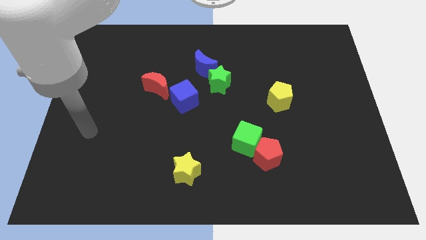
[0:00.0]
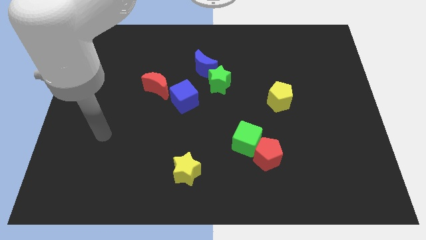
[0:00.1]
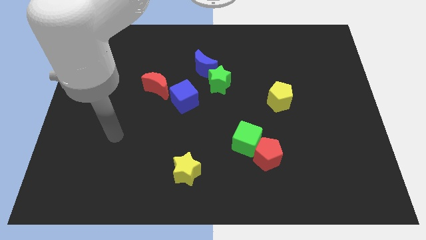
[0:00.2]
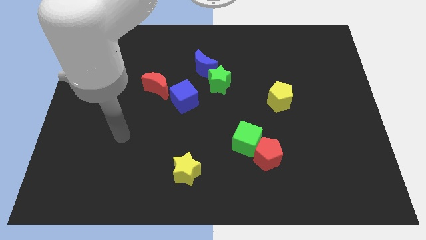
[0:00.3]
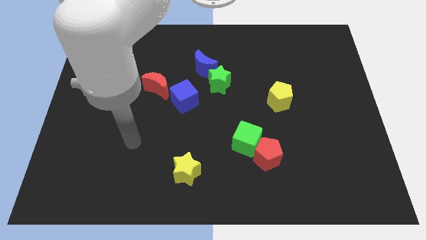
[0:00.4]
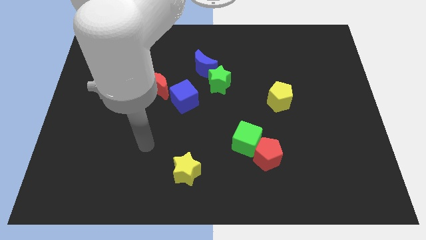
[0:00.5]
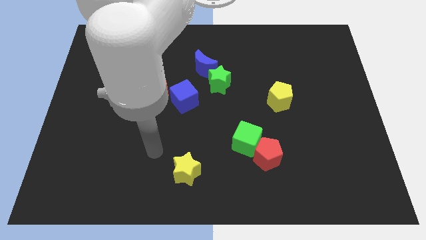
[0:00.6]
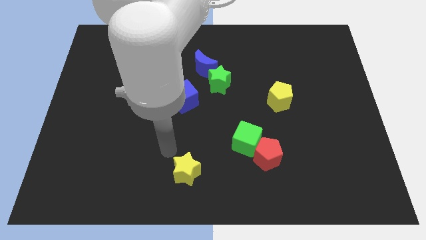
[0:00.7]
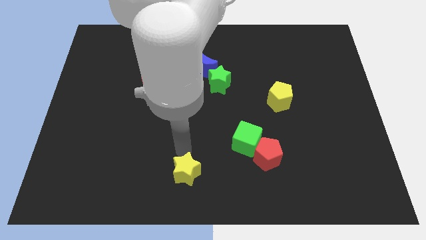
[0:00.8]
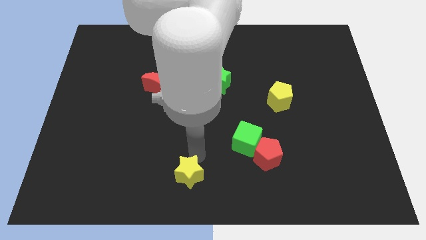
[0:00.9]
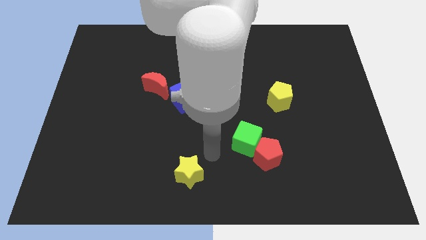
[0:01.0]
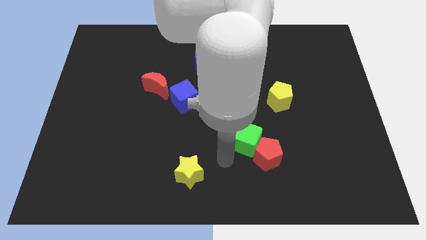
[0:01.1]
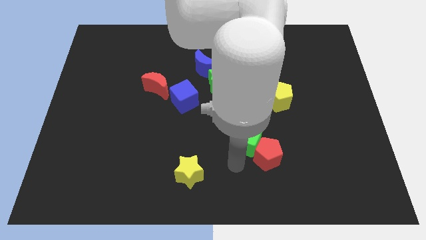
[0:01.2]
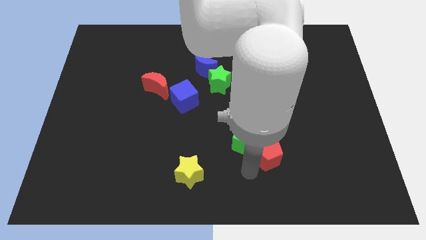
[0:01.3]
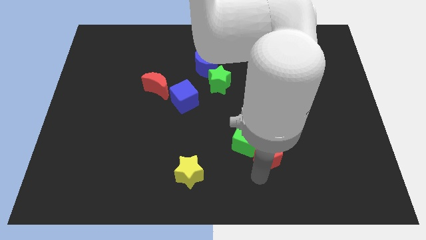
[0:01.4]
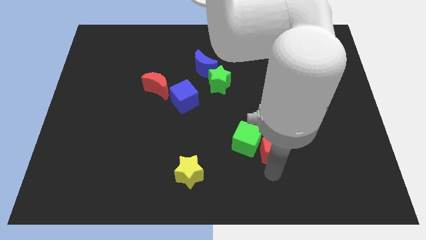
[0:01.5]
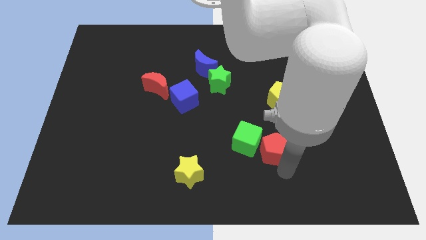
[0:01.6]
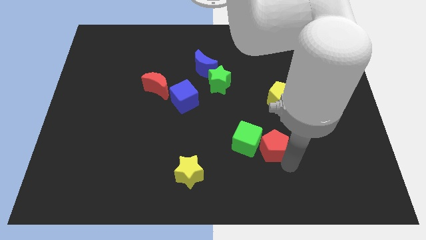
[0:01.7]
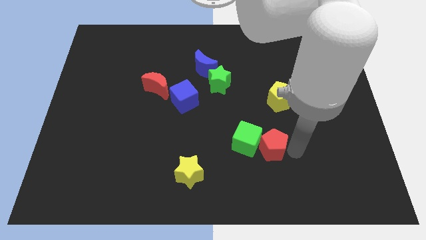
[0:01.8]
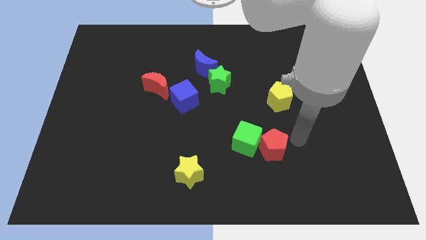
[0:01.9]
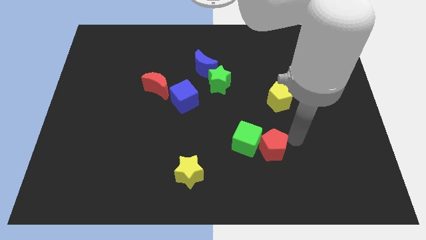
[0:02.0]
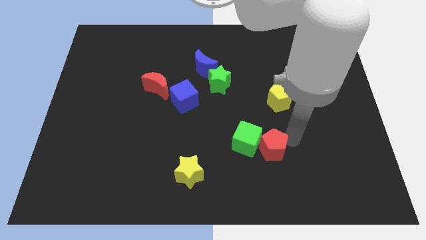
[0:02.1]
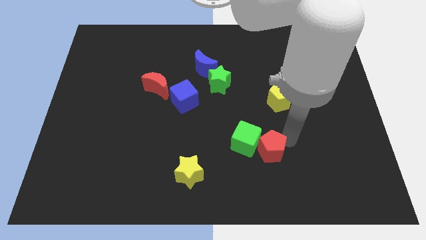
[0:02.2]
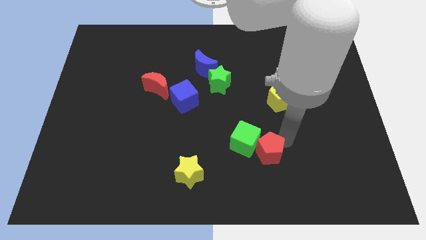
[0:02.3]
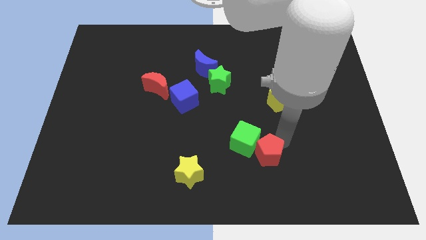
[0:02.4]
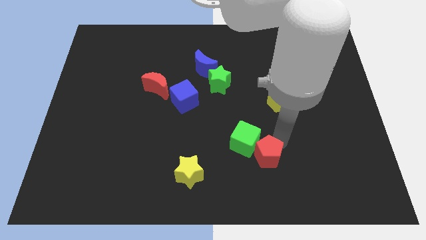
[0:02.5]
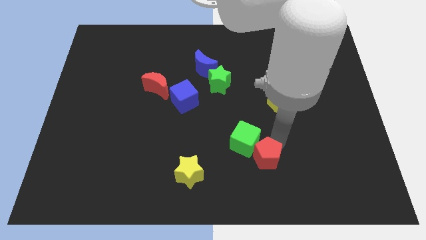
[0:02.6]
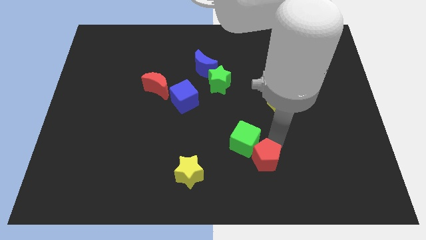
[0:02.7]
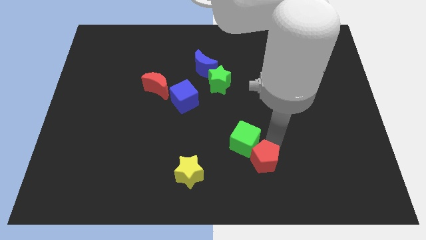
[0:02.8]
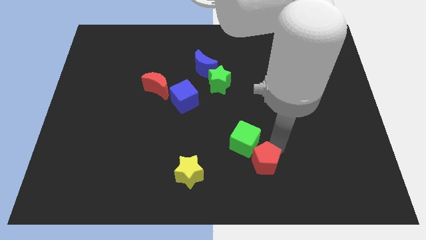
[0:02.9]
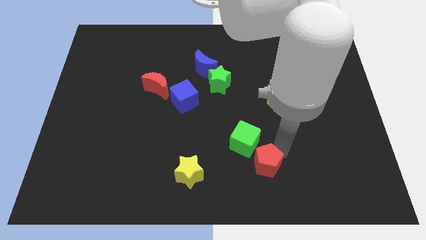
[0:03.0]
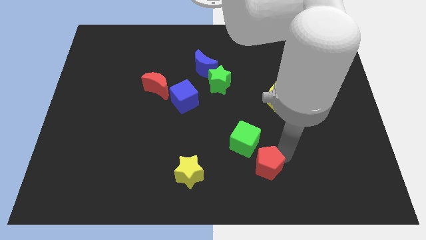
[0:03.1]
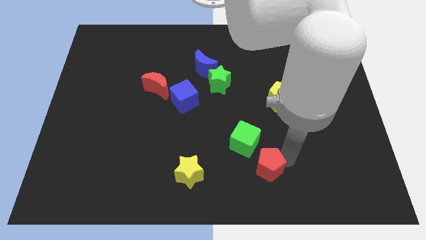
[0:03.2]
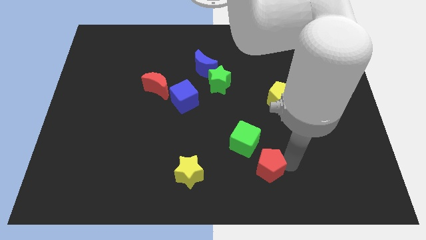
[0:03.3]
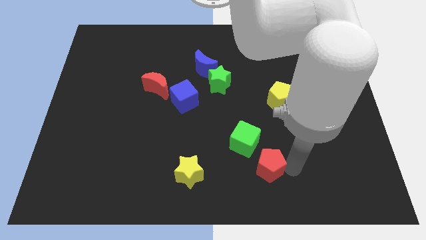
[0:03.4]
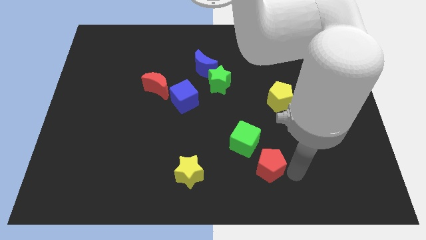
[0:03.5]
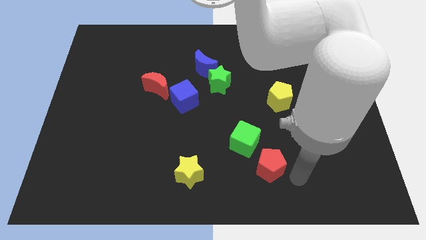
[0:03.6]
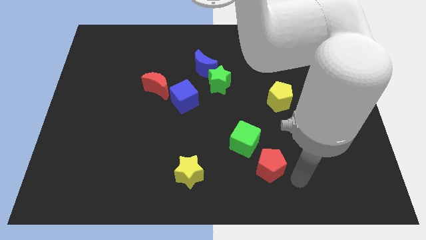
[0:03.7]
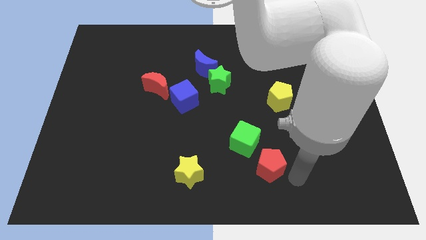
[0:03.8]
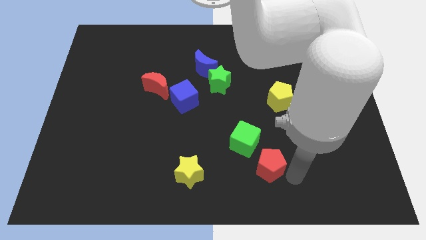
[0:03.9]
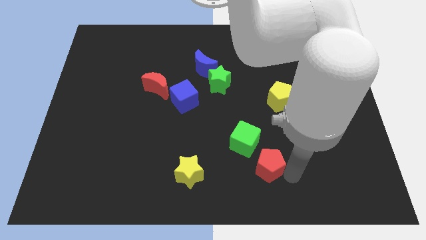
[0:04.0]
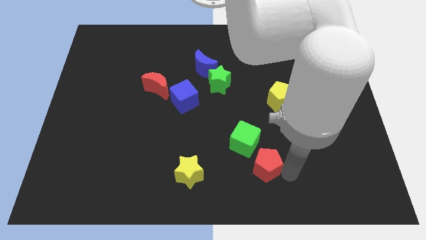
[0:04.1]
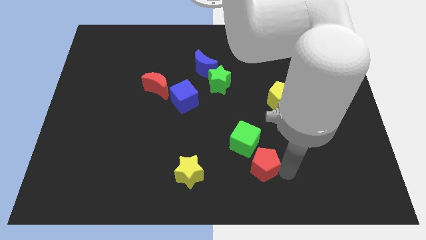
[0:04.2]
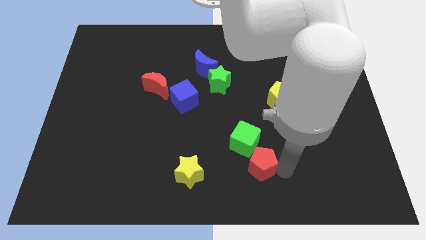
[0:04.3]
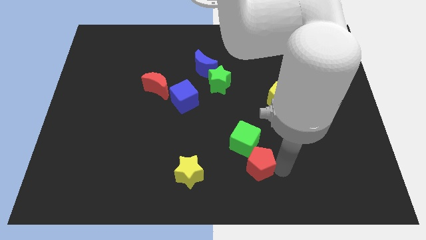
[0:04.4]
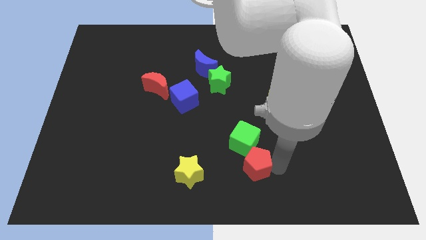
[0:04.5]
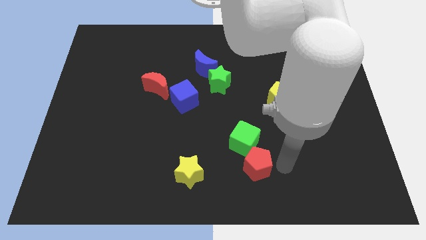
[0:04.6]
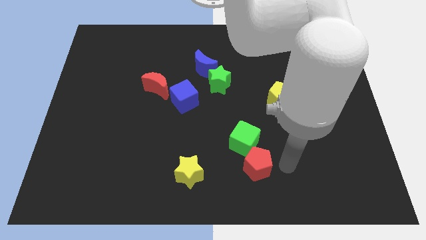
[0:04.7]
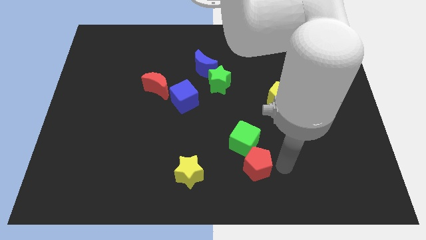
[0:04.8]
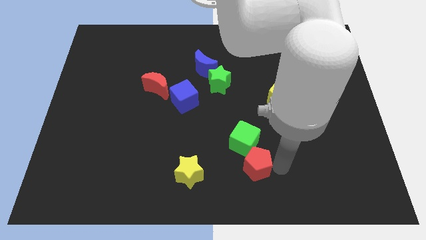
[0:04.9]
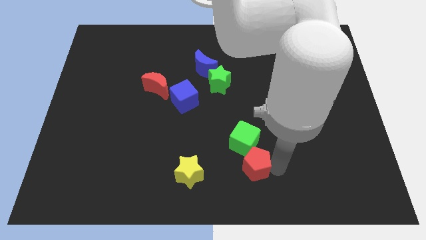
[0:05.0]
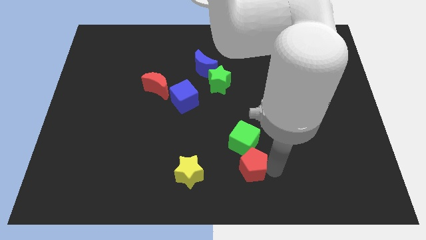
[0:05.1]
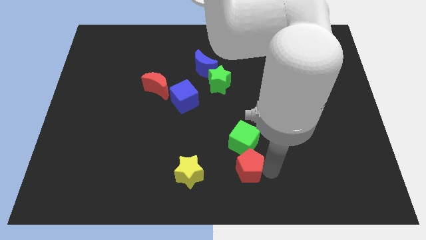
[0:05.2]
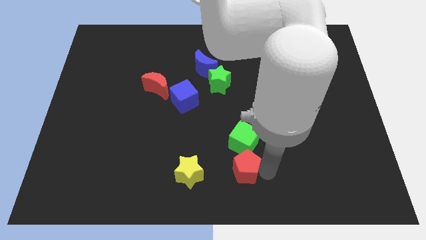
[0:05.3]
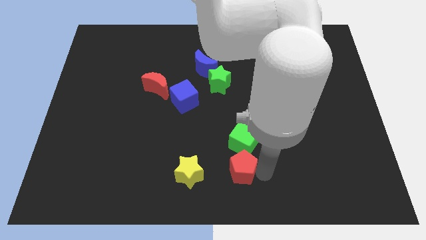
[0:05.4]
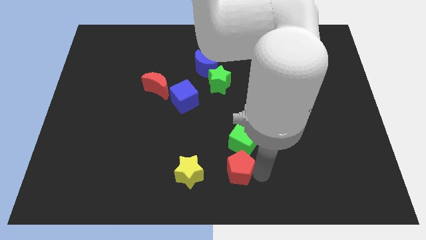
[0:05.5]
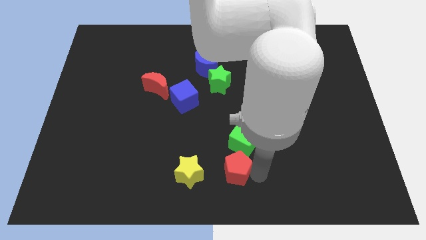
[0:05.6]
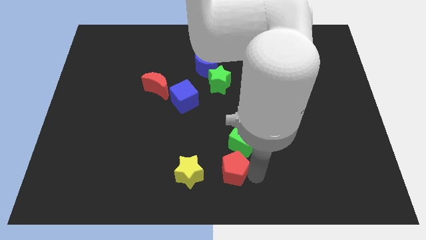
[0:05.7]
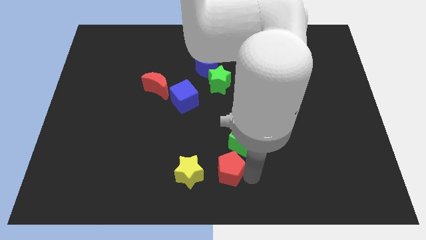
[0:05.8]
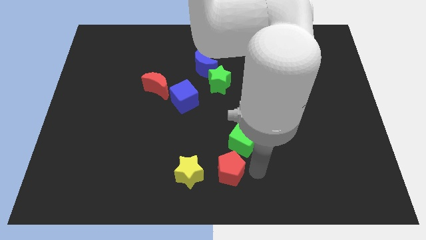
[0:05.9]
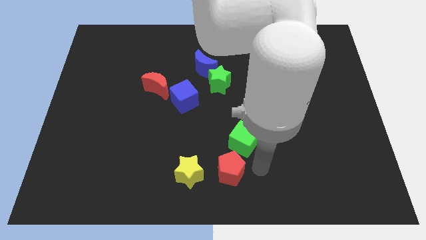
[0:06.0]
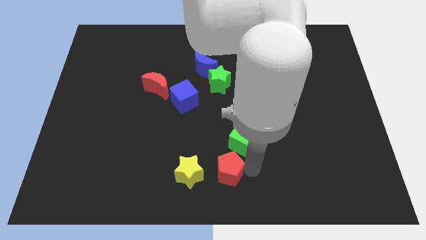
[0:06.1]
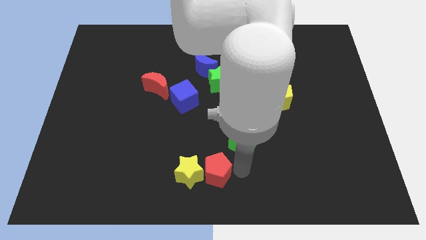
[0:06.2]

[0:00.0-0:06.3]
put the red pentagon to the yellow star
